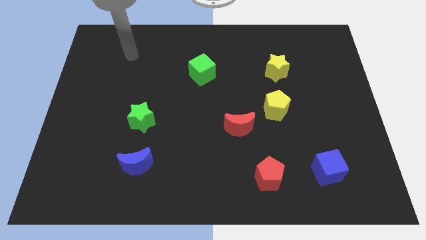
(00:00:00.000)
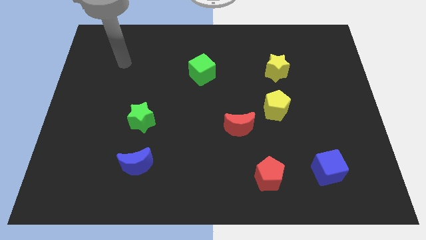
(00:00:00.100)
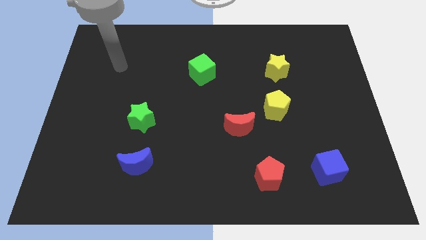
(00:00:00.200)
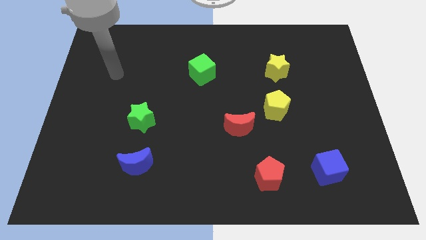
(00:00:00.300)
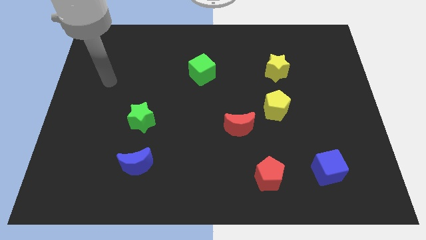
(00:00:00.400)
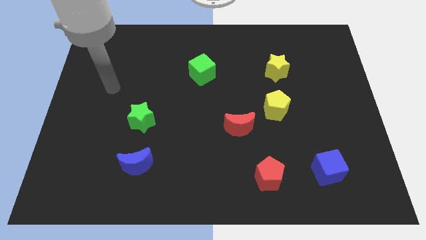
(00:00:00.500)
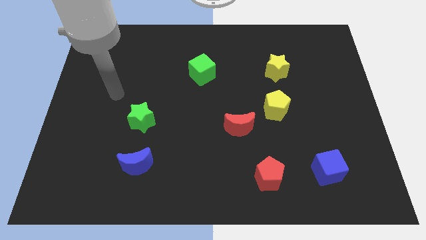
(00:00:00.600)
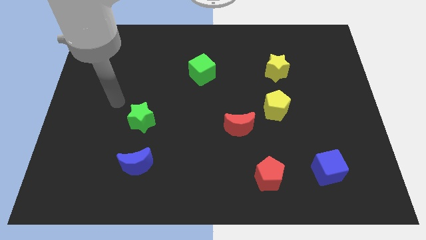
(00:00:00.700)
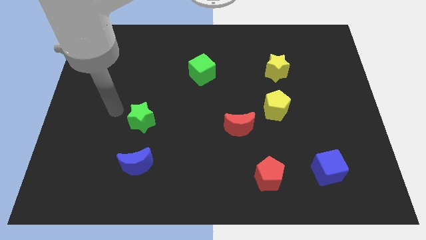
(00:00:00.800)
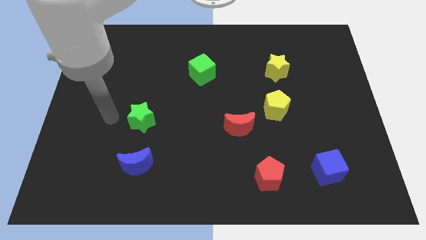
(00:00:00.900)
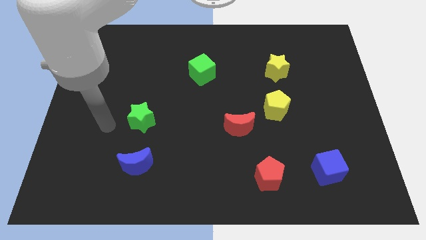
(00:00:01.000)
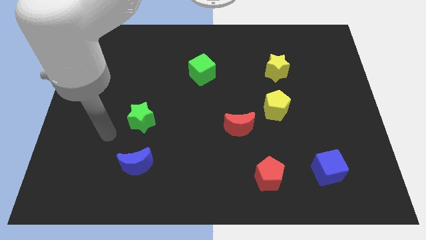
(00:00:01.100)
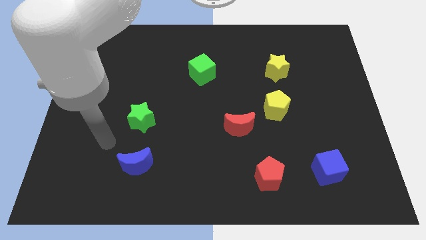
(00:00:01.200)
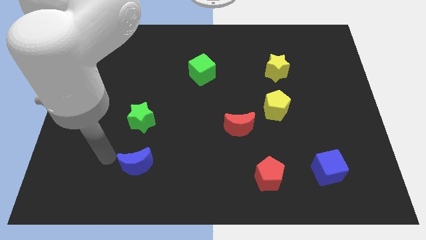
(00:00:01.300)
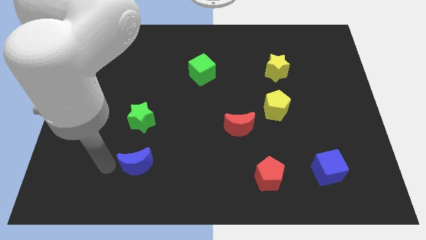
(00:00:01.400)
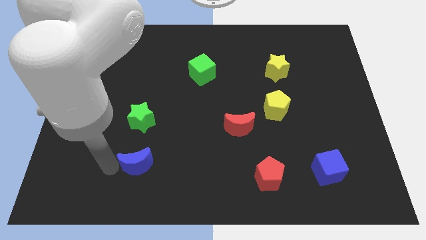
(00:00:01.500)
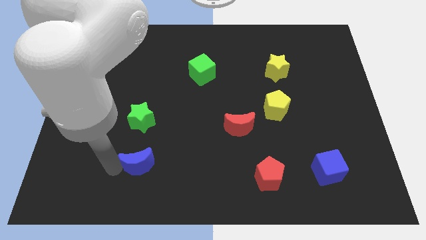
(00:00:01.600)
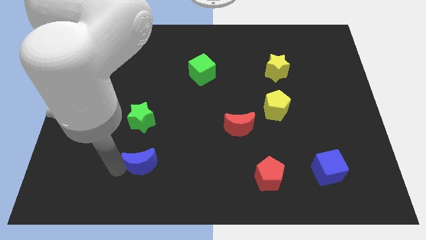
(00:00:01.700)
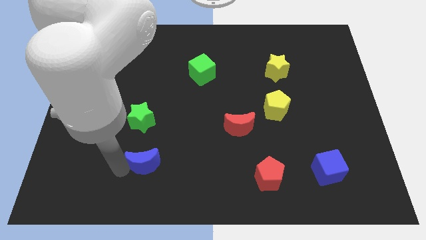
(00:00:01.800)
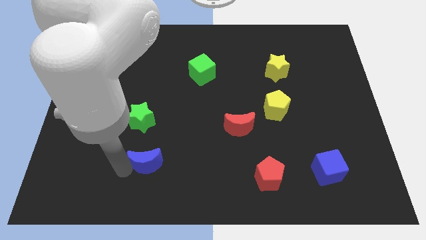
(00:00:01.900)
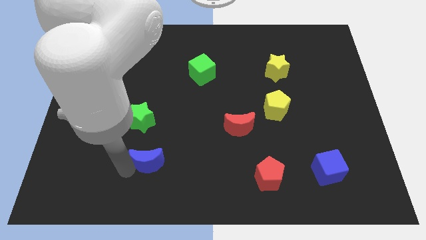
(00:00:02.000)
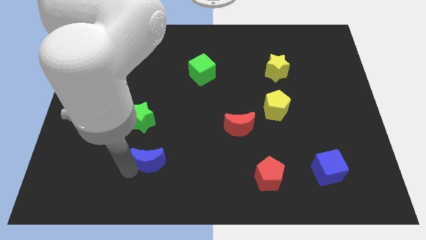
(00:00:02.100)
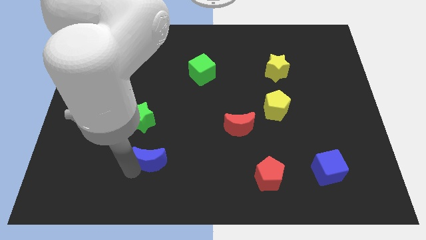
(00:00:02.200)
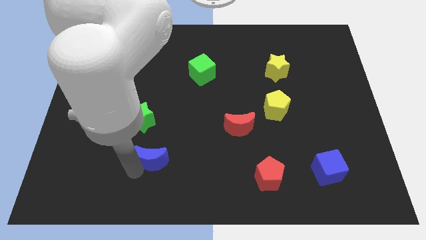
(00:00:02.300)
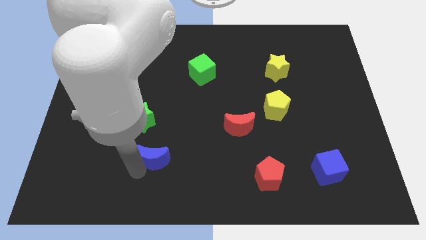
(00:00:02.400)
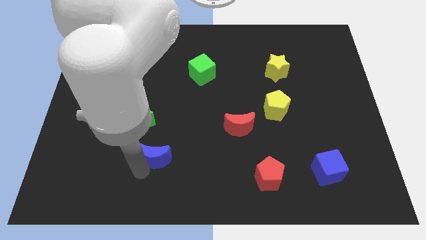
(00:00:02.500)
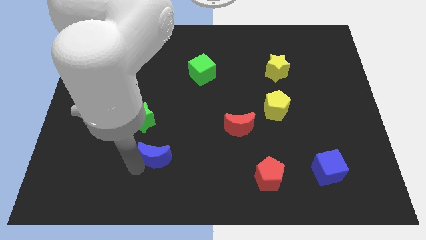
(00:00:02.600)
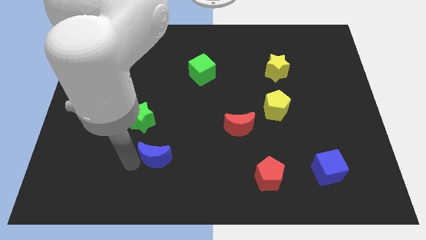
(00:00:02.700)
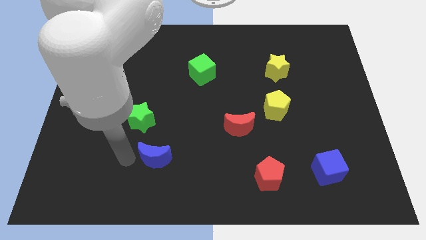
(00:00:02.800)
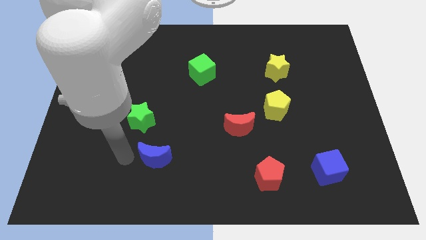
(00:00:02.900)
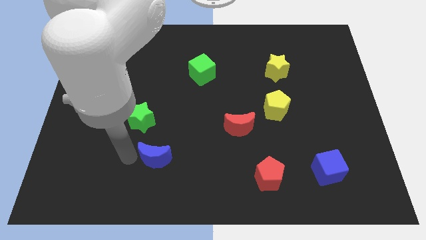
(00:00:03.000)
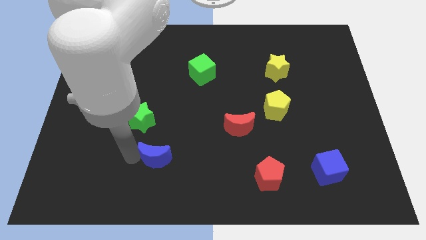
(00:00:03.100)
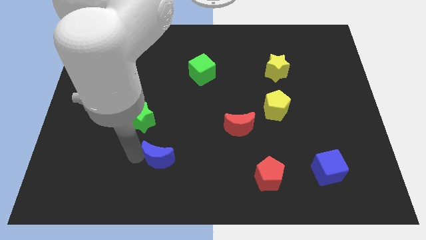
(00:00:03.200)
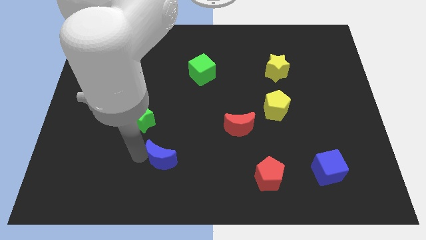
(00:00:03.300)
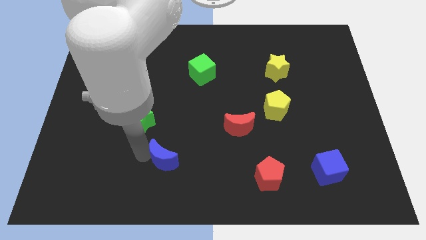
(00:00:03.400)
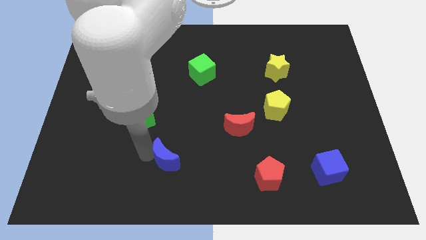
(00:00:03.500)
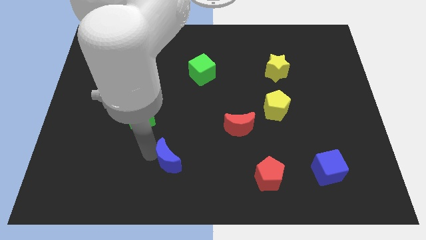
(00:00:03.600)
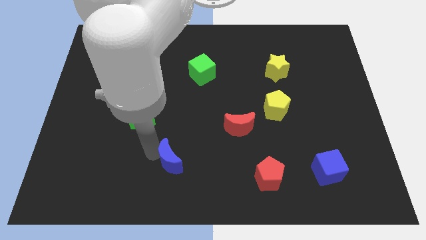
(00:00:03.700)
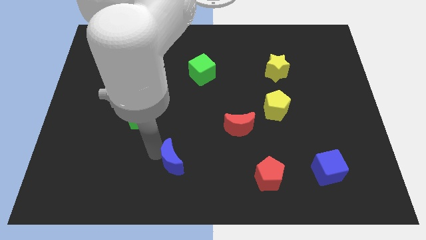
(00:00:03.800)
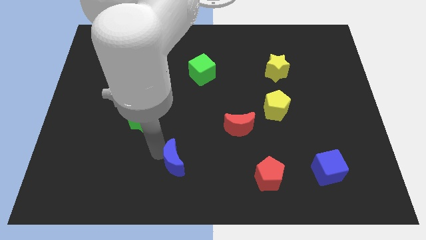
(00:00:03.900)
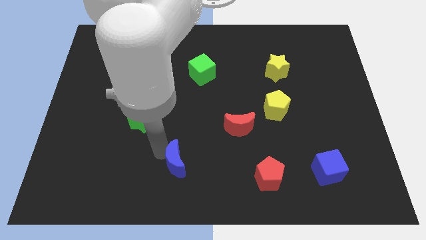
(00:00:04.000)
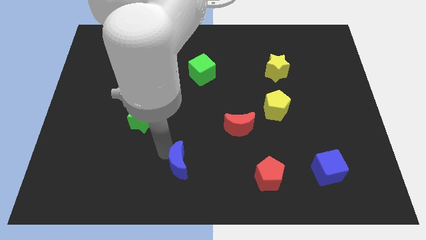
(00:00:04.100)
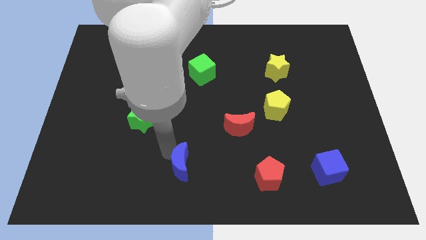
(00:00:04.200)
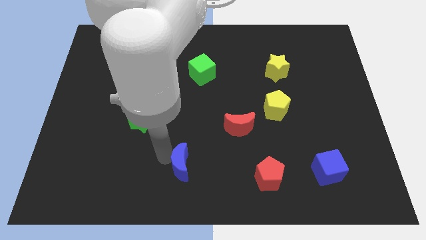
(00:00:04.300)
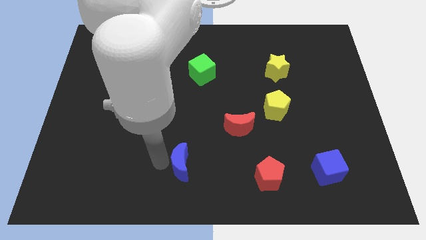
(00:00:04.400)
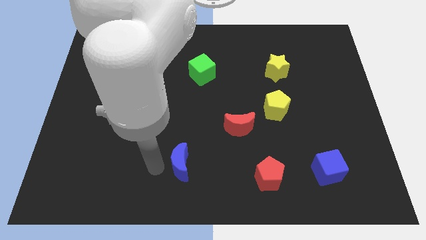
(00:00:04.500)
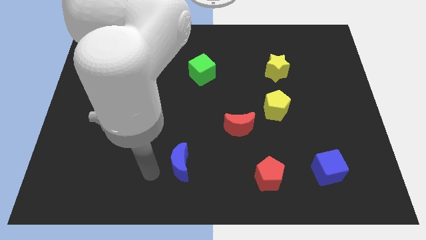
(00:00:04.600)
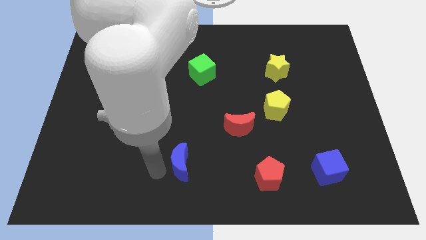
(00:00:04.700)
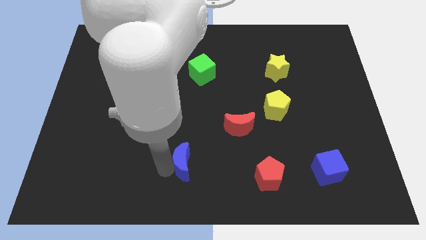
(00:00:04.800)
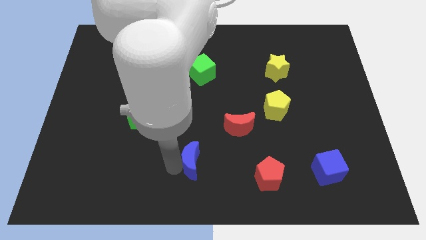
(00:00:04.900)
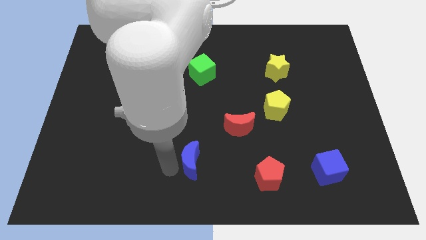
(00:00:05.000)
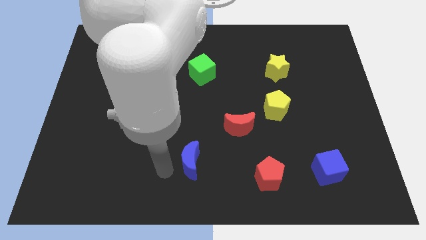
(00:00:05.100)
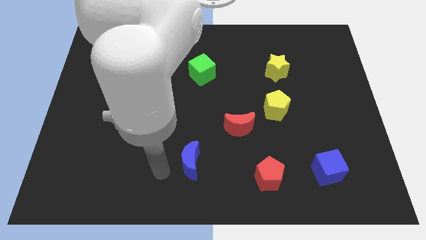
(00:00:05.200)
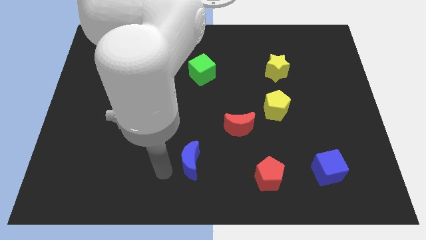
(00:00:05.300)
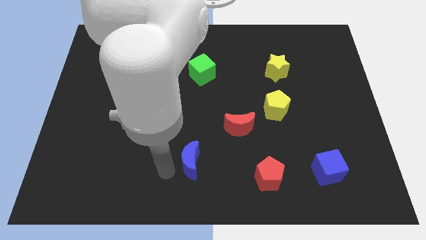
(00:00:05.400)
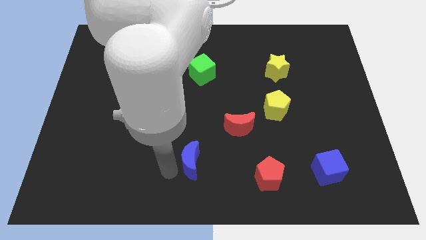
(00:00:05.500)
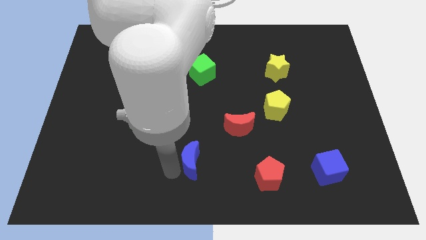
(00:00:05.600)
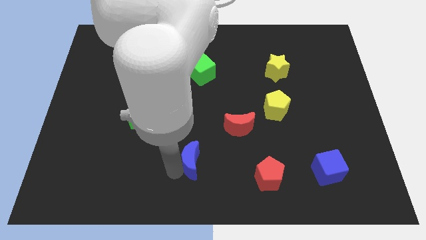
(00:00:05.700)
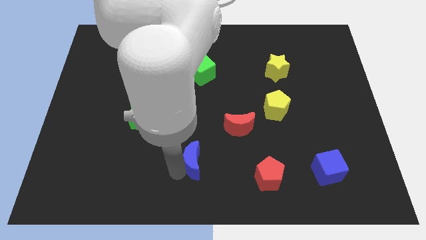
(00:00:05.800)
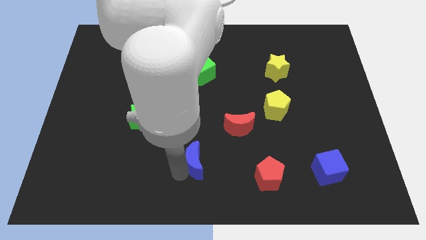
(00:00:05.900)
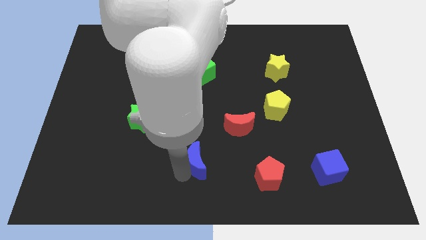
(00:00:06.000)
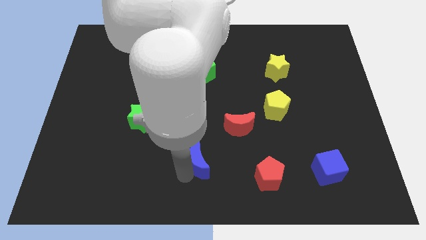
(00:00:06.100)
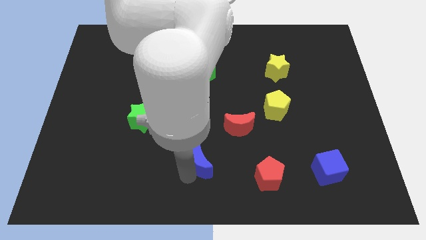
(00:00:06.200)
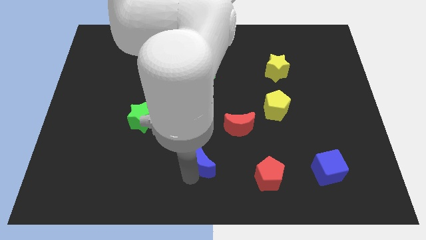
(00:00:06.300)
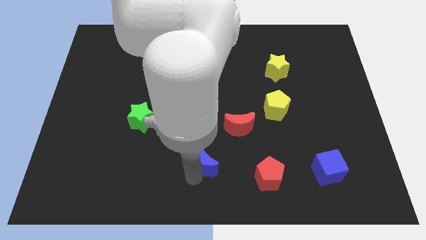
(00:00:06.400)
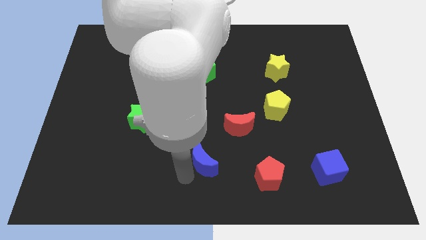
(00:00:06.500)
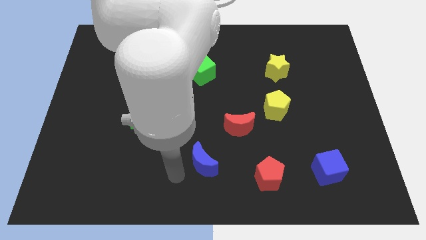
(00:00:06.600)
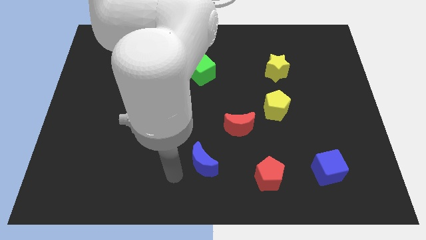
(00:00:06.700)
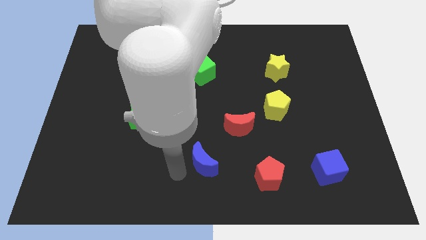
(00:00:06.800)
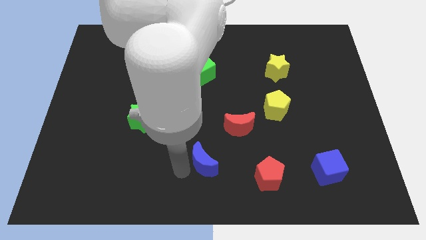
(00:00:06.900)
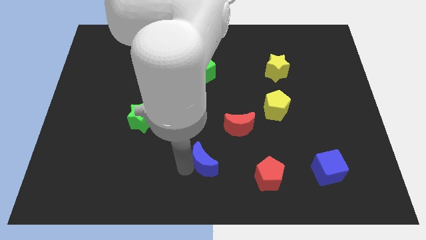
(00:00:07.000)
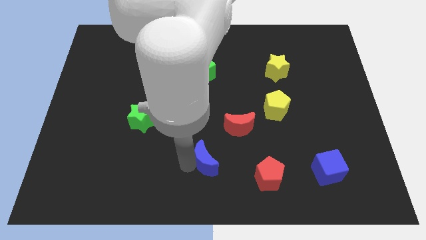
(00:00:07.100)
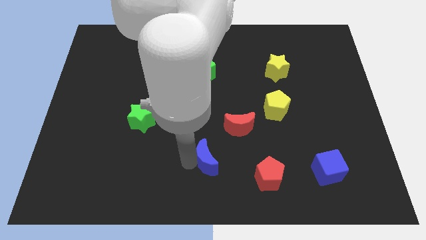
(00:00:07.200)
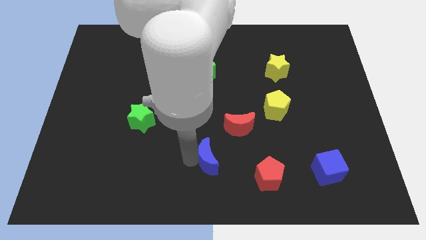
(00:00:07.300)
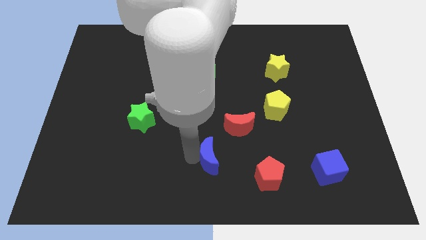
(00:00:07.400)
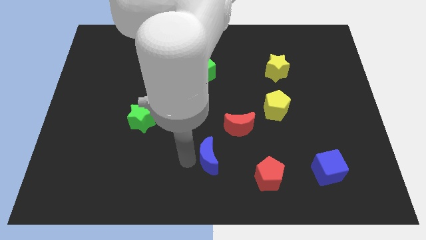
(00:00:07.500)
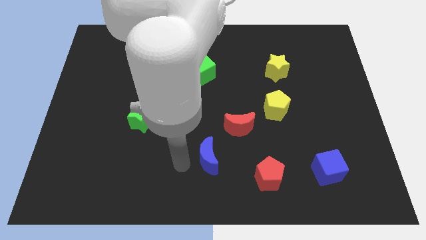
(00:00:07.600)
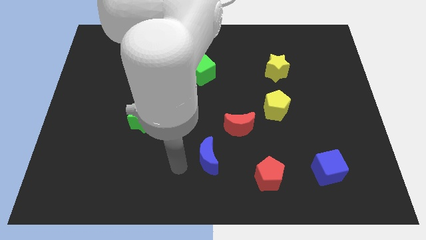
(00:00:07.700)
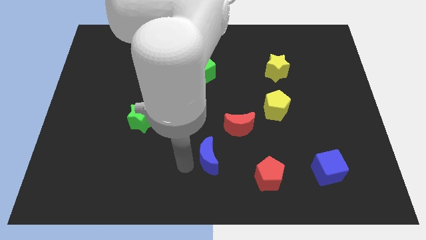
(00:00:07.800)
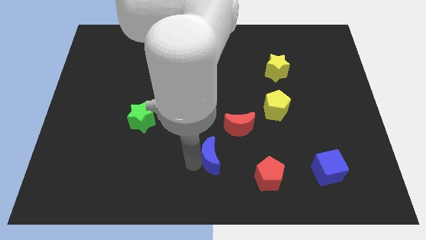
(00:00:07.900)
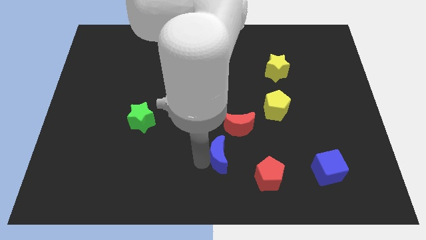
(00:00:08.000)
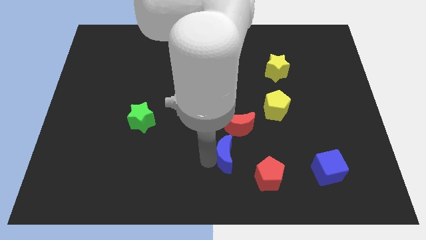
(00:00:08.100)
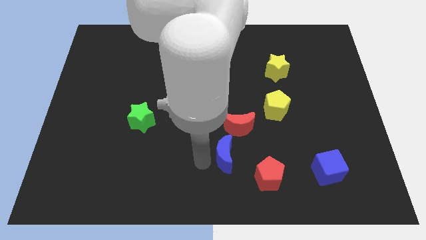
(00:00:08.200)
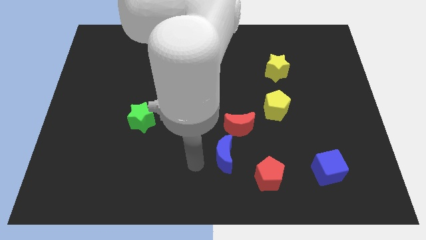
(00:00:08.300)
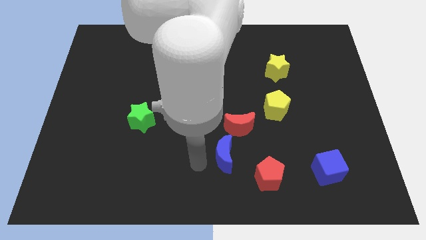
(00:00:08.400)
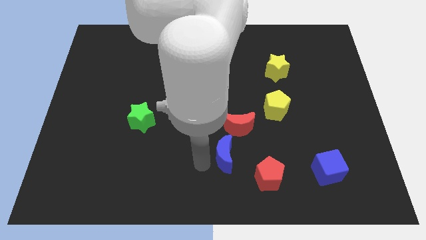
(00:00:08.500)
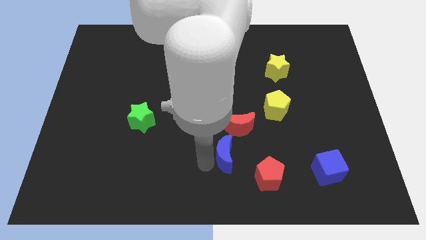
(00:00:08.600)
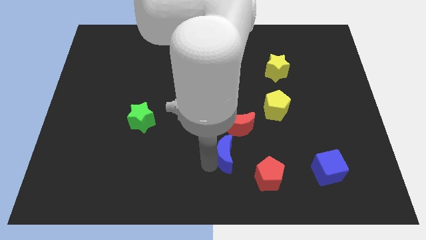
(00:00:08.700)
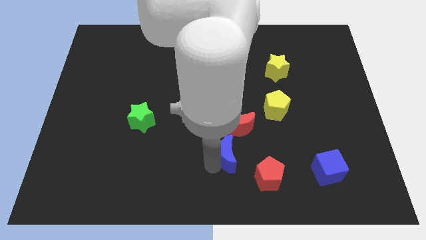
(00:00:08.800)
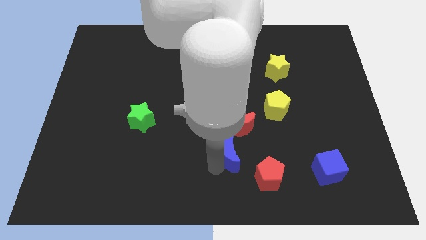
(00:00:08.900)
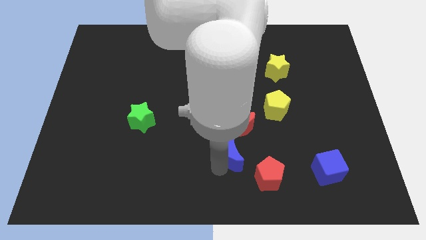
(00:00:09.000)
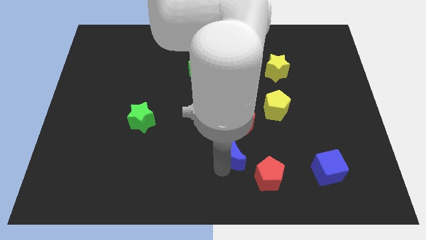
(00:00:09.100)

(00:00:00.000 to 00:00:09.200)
slide the blue moon to the right
